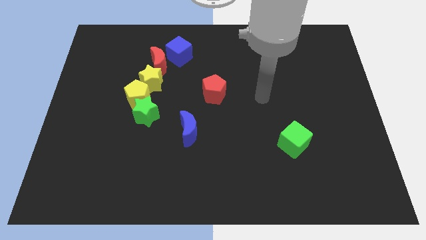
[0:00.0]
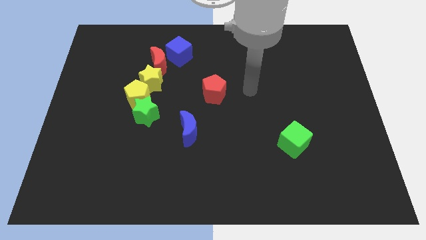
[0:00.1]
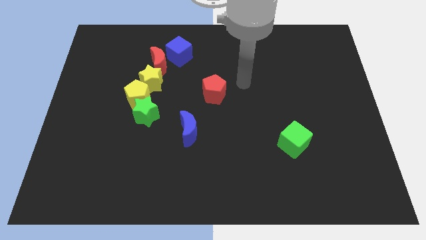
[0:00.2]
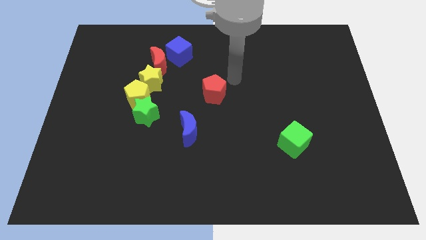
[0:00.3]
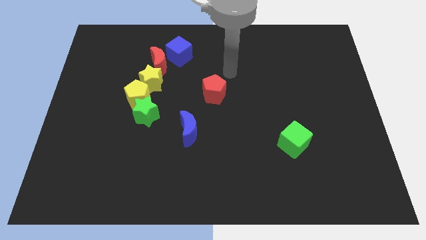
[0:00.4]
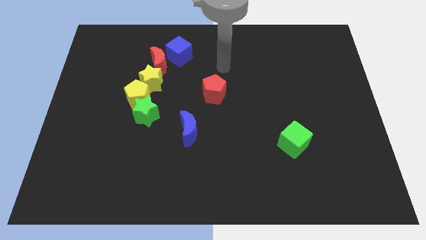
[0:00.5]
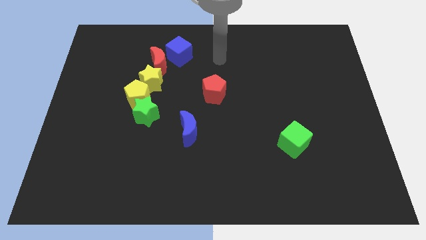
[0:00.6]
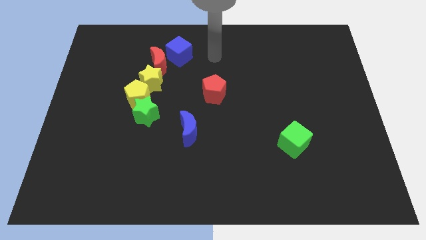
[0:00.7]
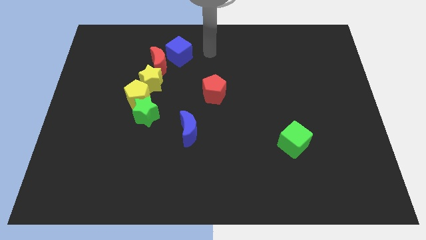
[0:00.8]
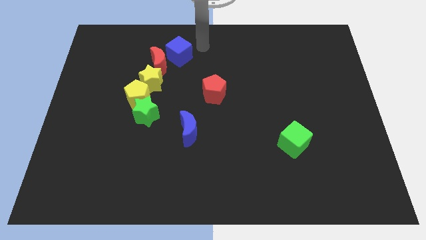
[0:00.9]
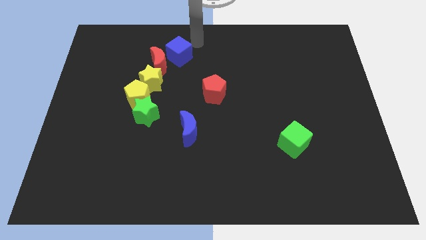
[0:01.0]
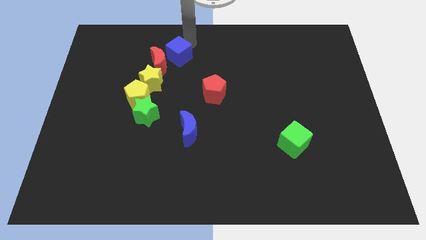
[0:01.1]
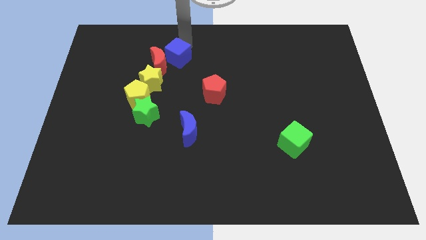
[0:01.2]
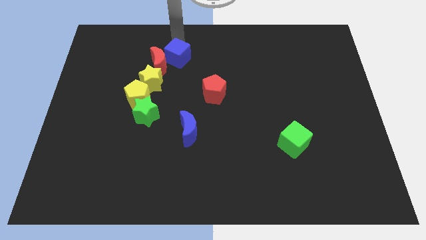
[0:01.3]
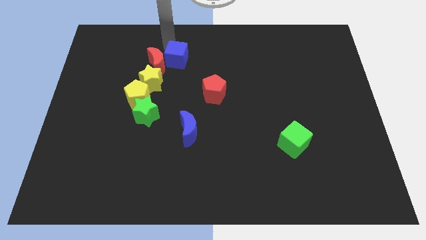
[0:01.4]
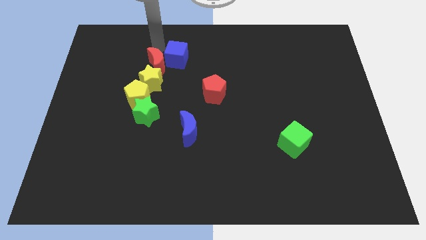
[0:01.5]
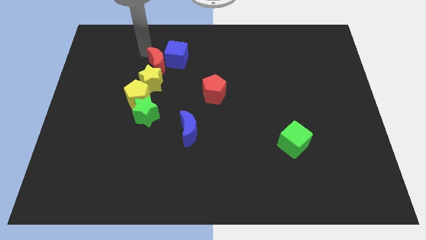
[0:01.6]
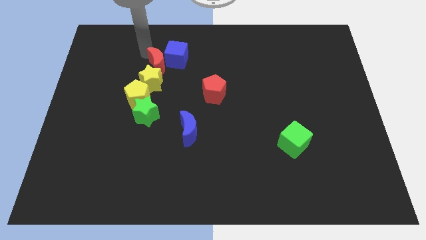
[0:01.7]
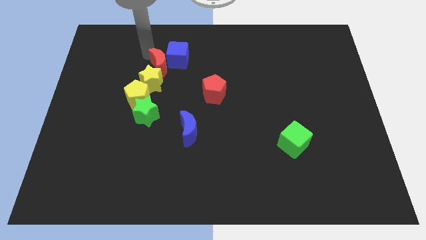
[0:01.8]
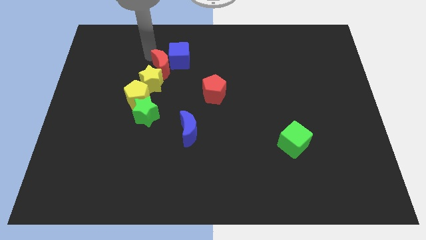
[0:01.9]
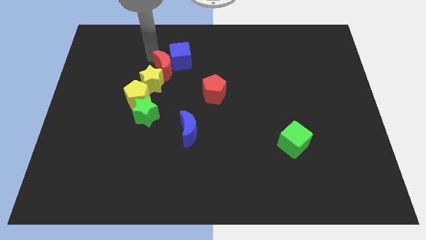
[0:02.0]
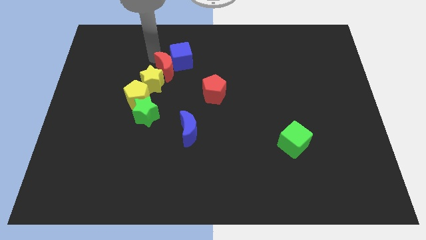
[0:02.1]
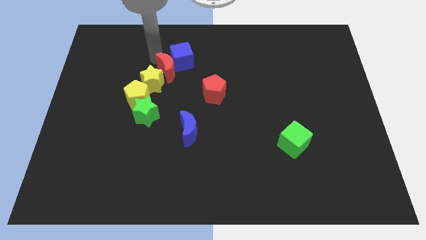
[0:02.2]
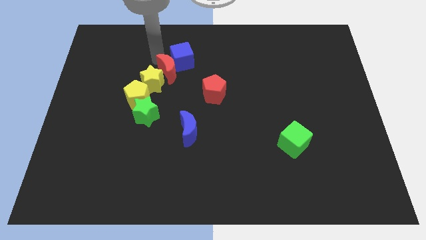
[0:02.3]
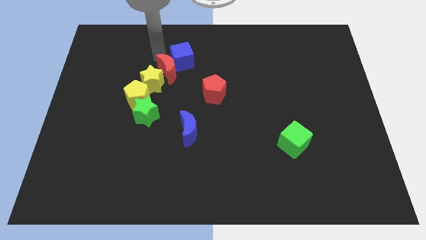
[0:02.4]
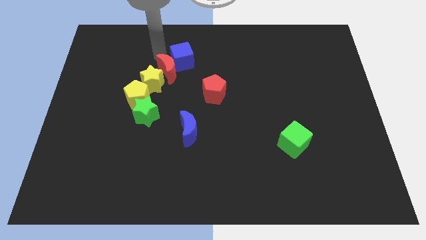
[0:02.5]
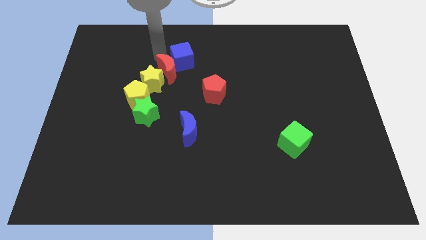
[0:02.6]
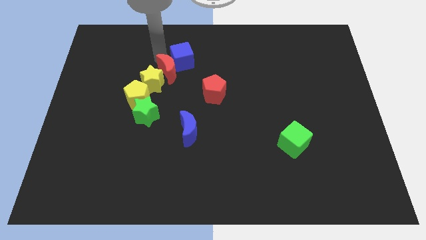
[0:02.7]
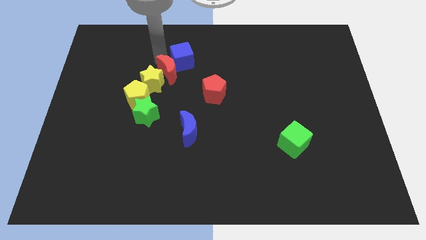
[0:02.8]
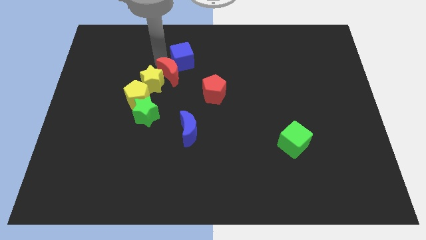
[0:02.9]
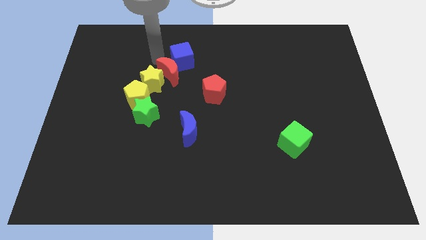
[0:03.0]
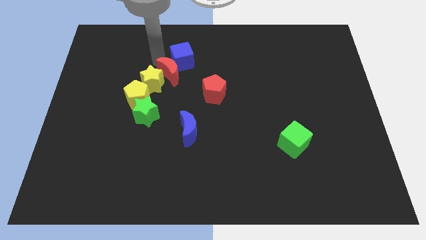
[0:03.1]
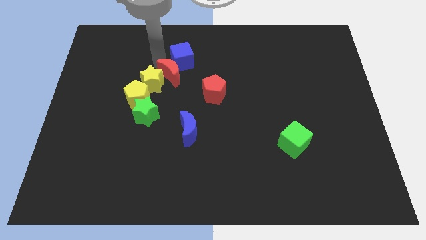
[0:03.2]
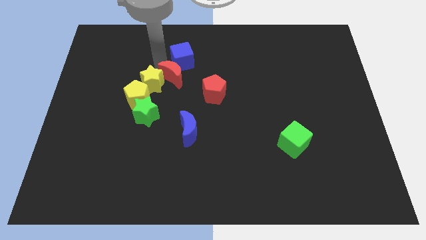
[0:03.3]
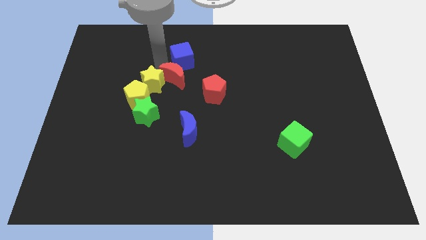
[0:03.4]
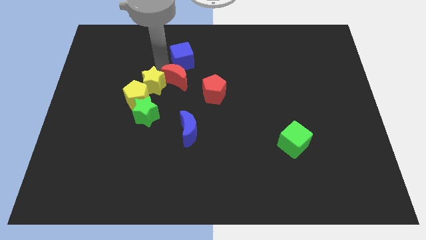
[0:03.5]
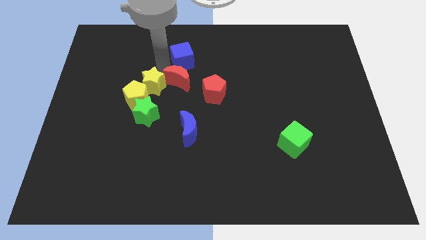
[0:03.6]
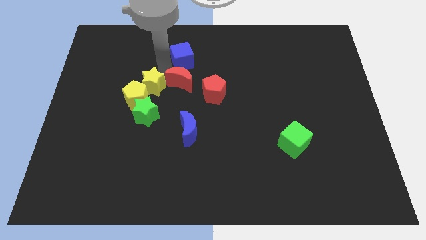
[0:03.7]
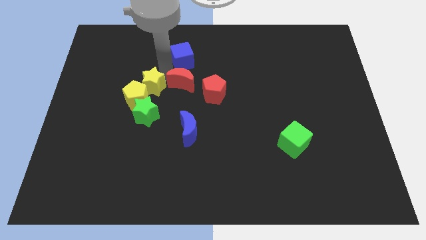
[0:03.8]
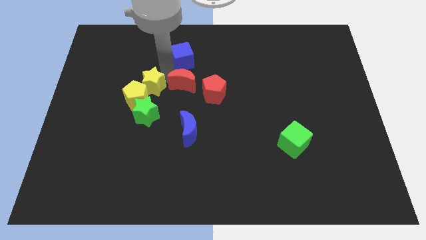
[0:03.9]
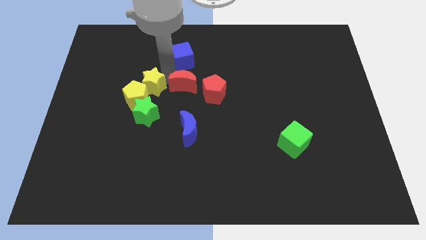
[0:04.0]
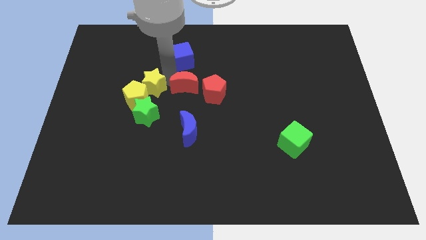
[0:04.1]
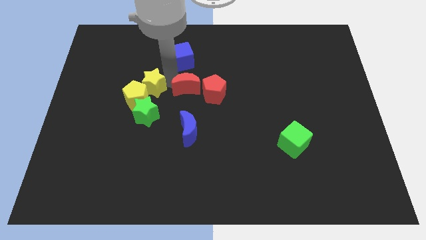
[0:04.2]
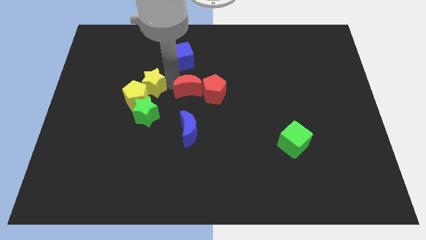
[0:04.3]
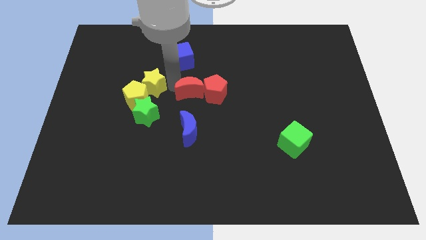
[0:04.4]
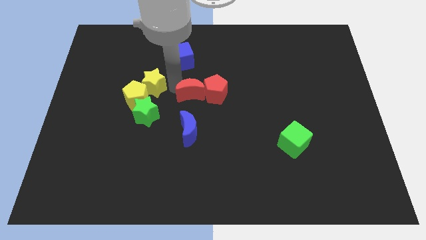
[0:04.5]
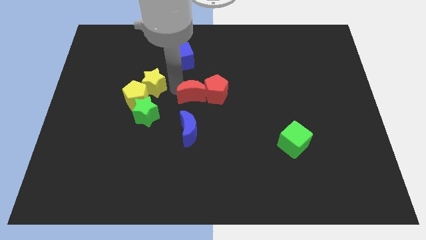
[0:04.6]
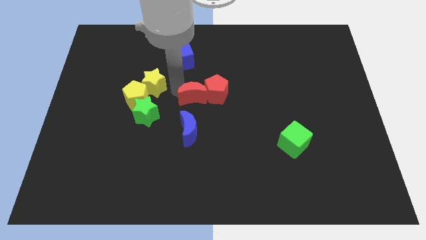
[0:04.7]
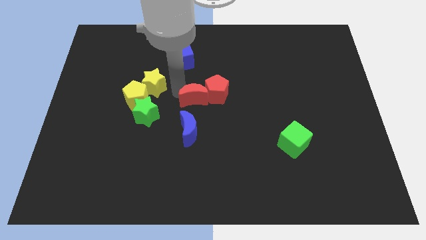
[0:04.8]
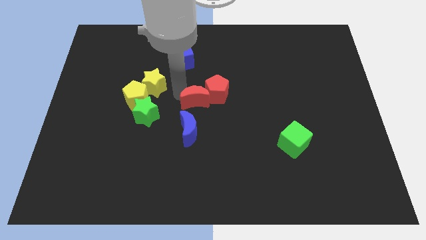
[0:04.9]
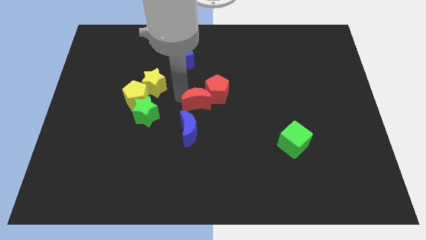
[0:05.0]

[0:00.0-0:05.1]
slide the red moon to the top right side of the blue moon

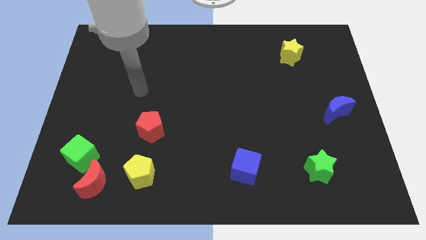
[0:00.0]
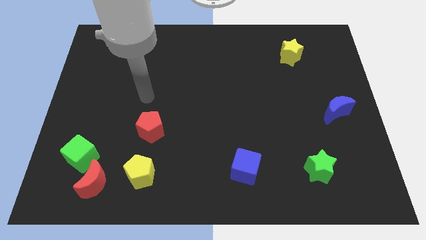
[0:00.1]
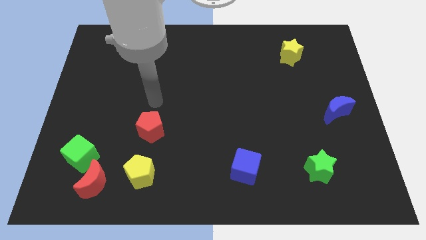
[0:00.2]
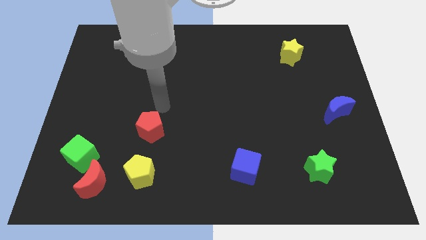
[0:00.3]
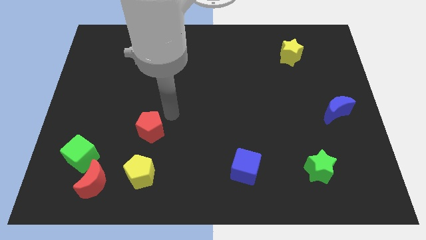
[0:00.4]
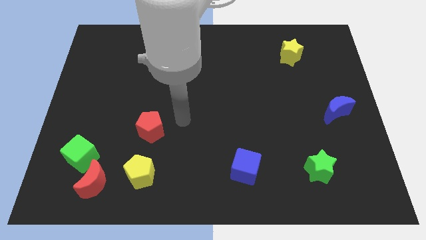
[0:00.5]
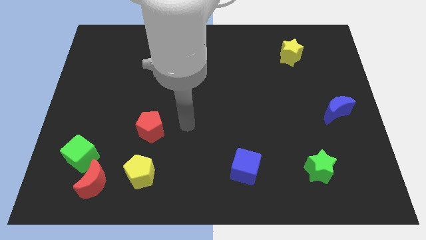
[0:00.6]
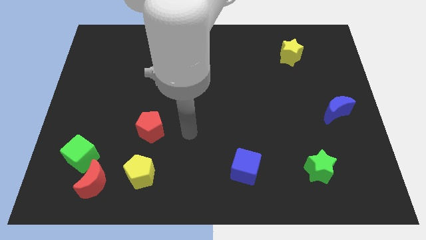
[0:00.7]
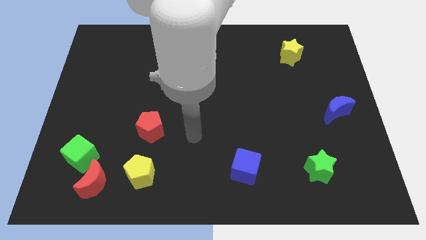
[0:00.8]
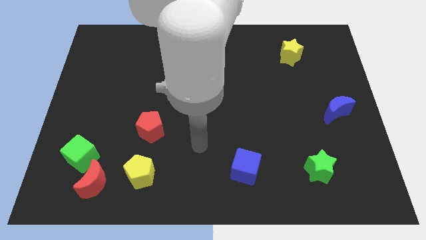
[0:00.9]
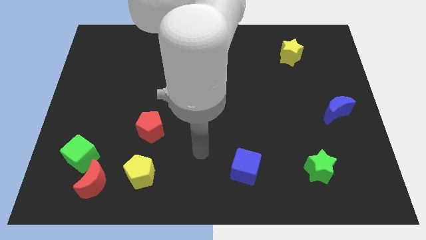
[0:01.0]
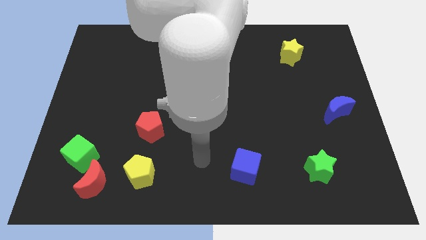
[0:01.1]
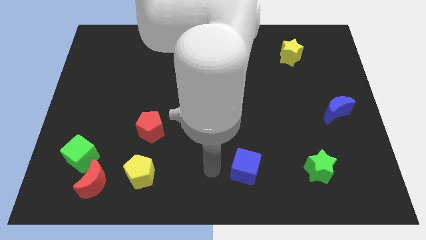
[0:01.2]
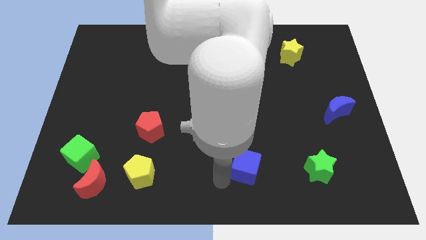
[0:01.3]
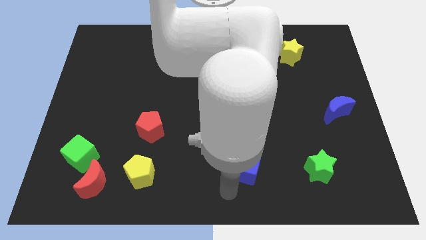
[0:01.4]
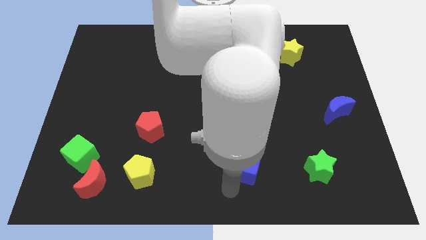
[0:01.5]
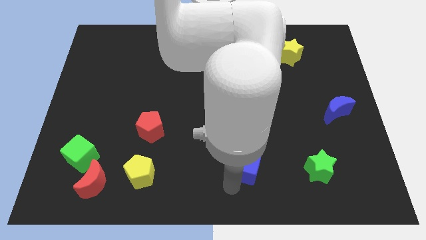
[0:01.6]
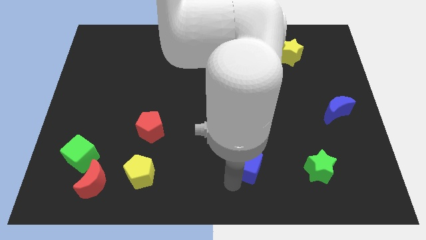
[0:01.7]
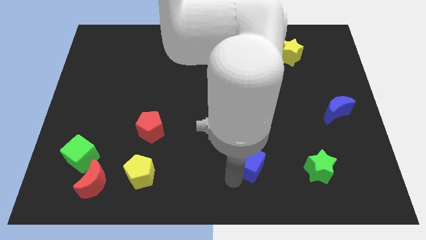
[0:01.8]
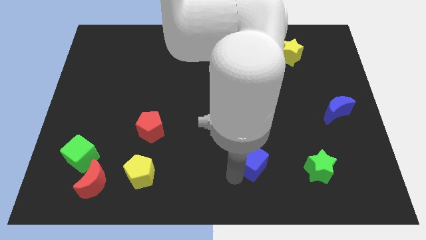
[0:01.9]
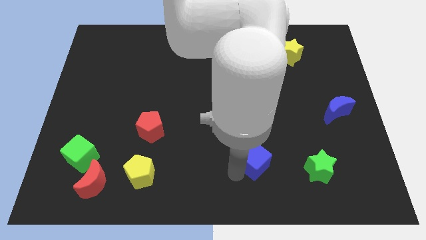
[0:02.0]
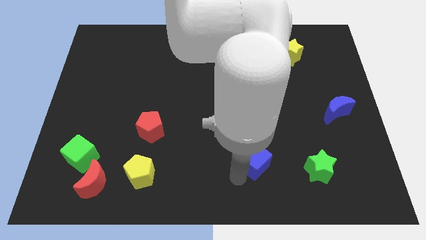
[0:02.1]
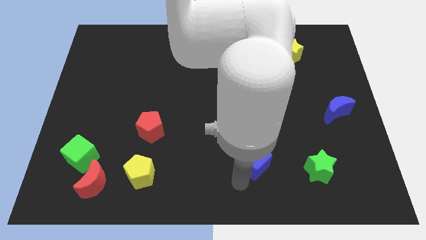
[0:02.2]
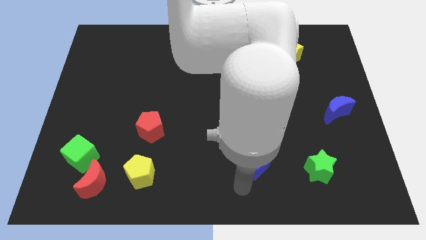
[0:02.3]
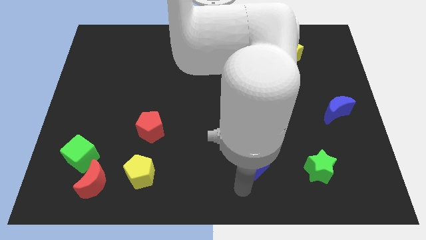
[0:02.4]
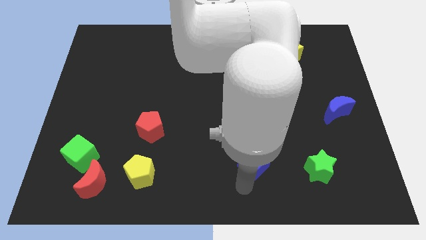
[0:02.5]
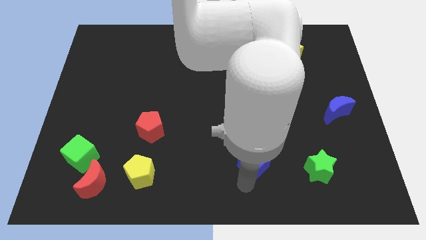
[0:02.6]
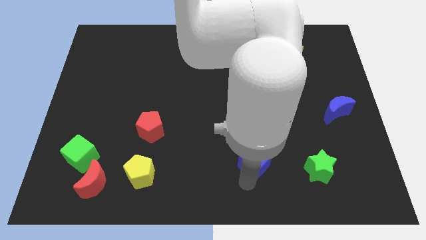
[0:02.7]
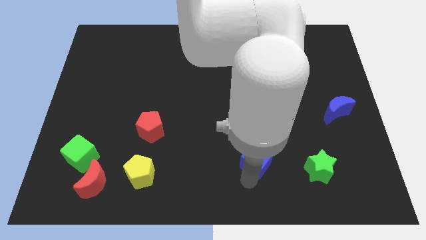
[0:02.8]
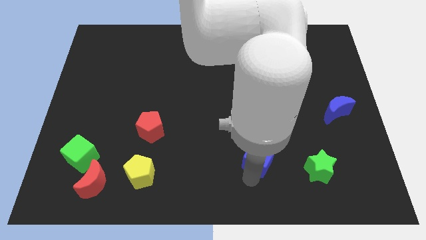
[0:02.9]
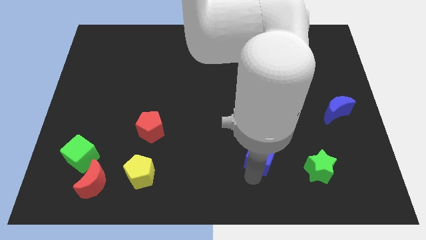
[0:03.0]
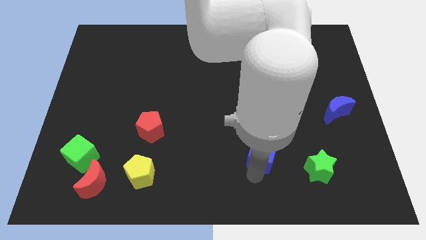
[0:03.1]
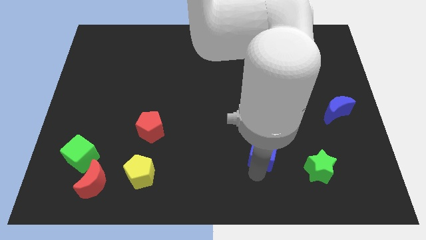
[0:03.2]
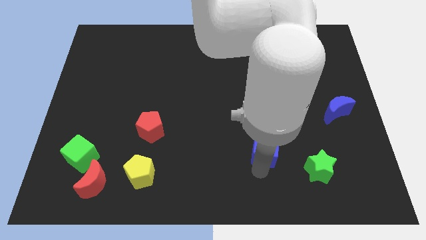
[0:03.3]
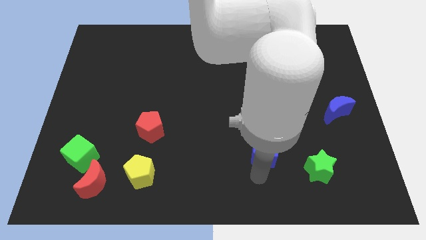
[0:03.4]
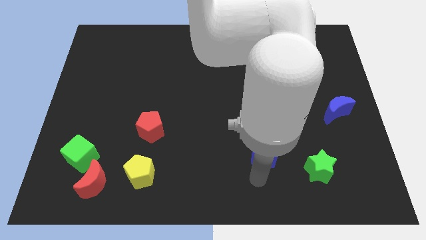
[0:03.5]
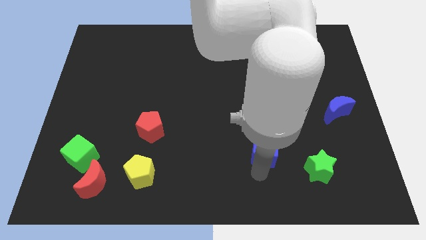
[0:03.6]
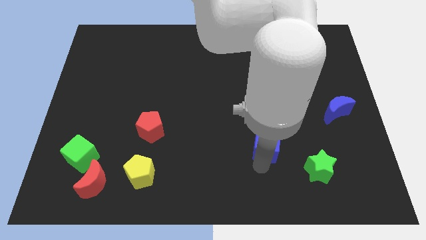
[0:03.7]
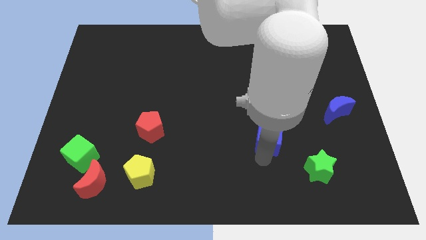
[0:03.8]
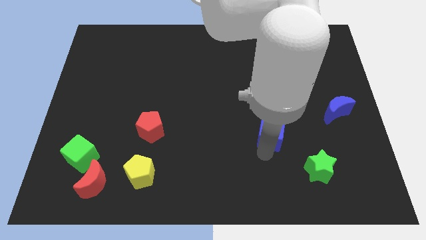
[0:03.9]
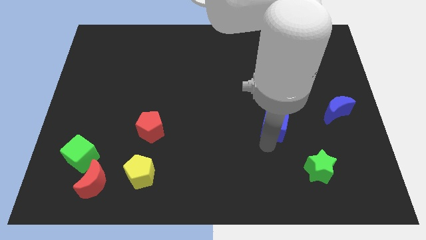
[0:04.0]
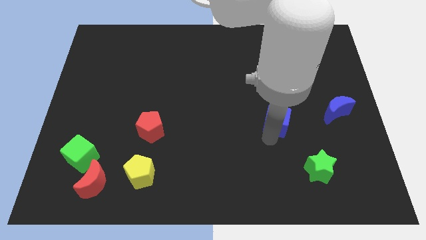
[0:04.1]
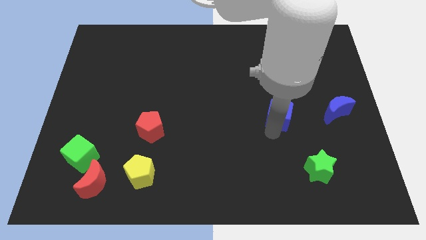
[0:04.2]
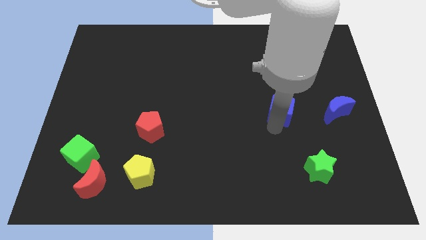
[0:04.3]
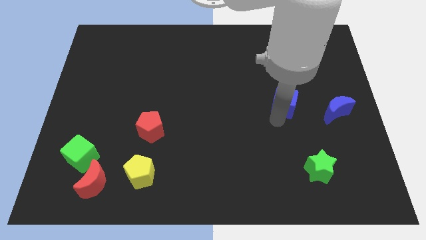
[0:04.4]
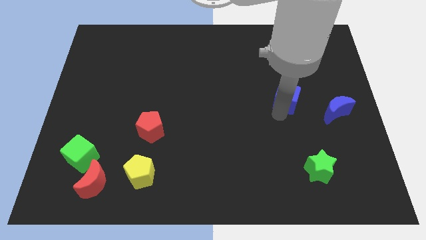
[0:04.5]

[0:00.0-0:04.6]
push the blue cube to the bottom of the yellow star
